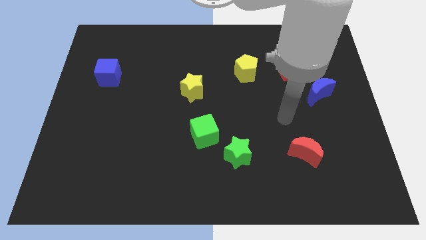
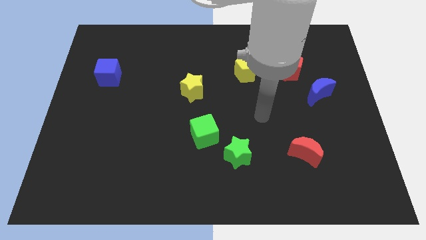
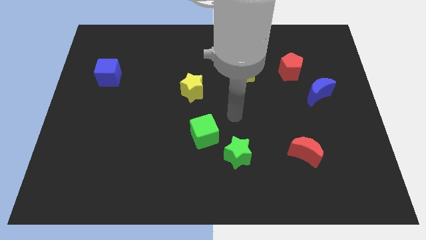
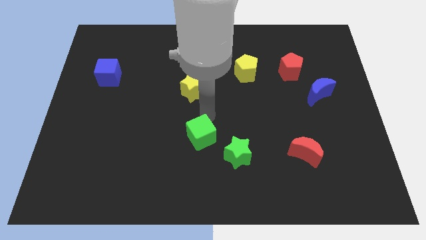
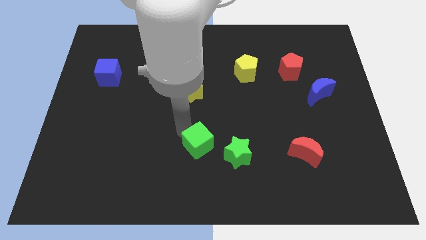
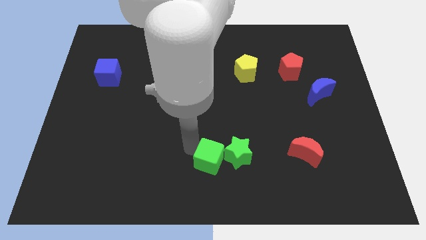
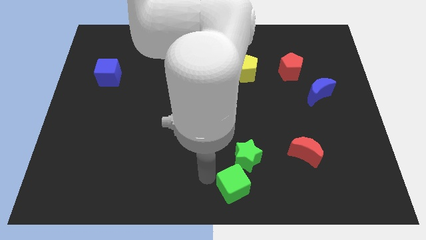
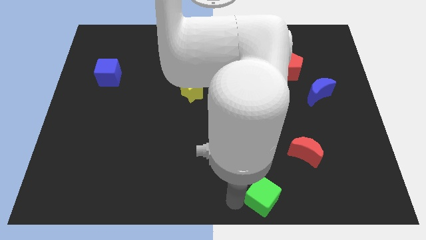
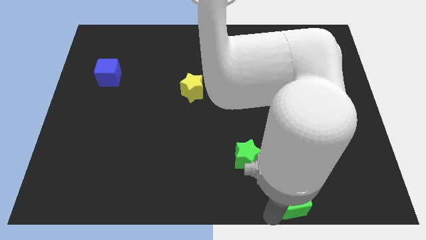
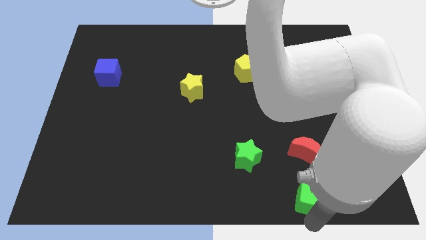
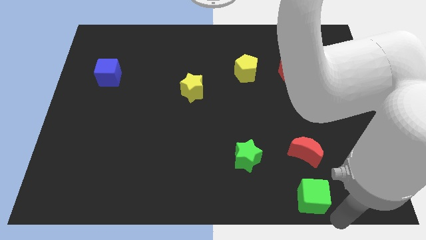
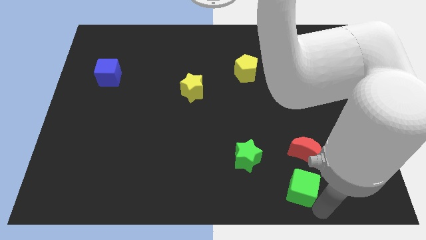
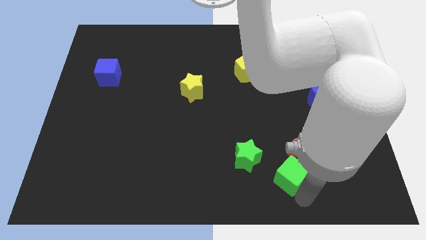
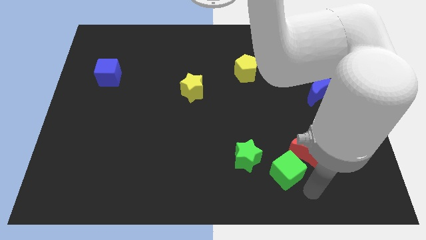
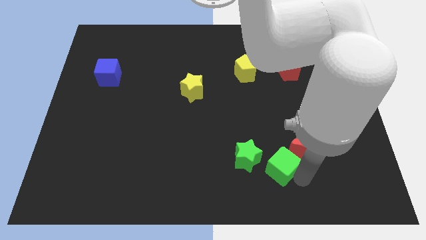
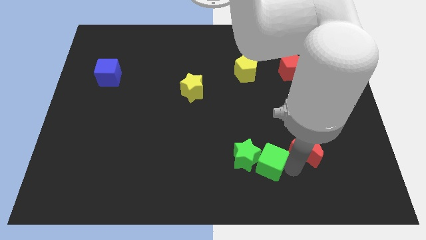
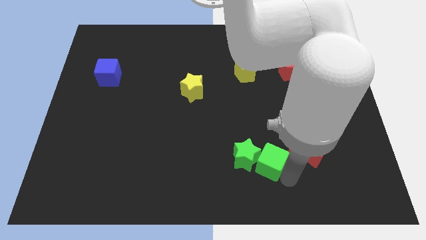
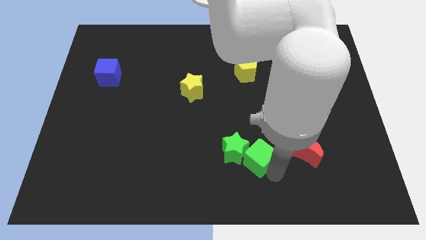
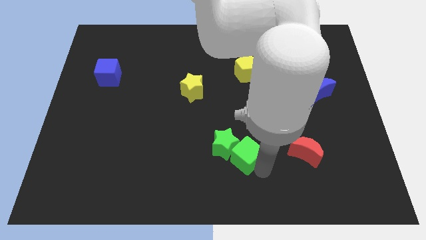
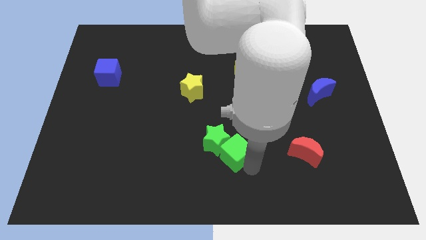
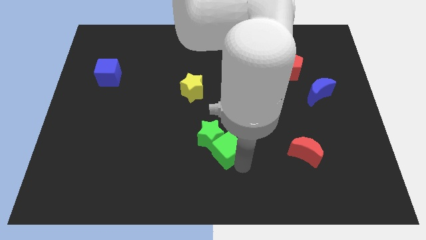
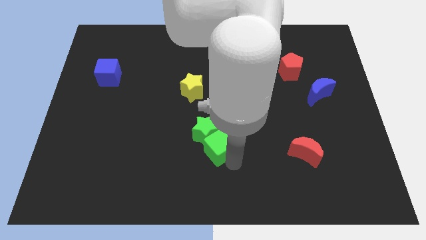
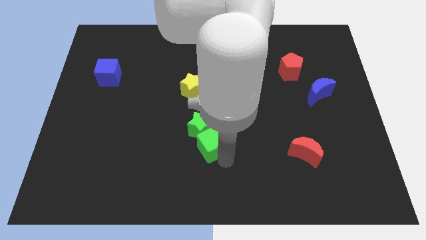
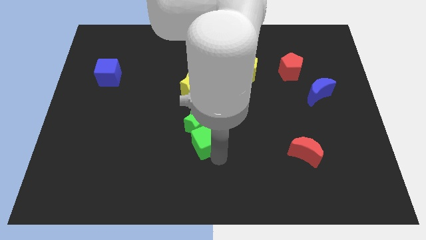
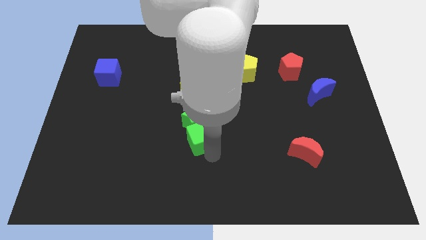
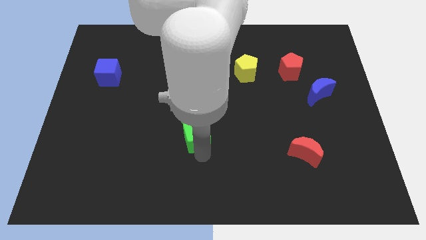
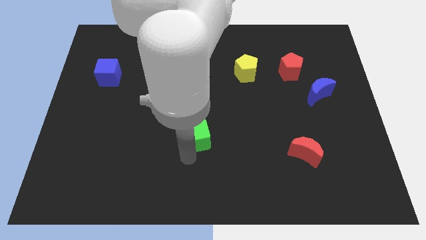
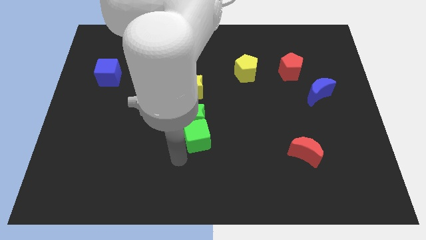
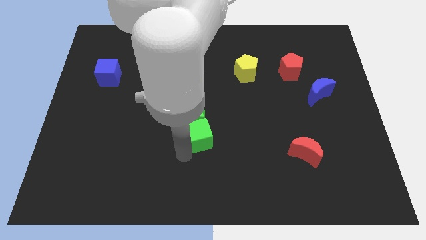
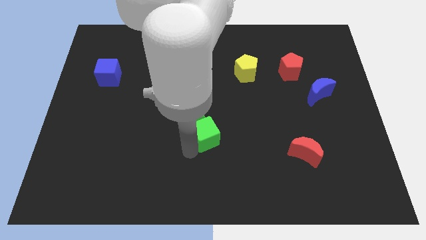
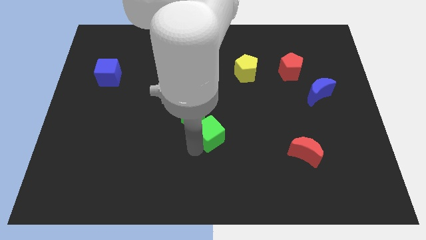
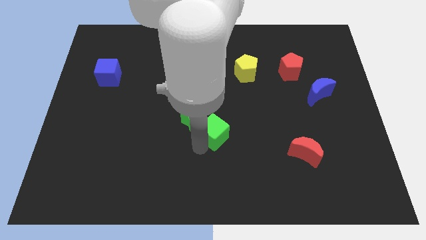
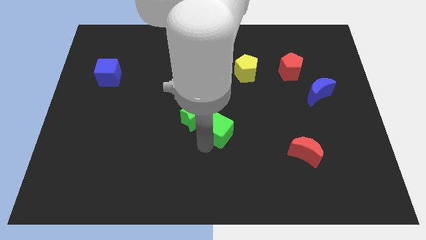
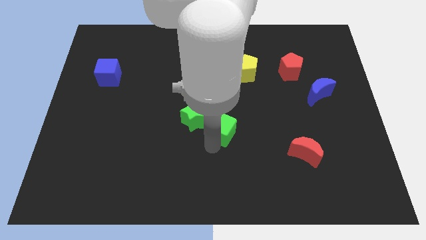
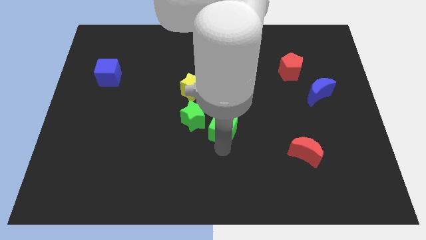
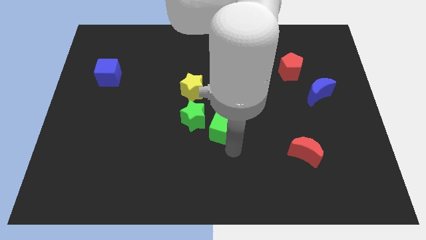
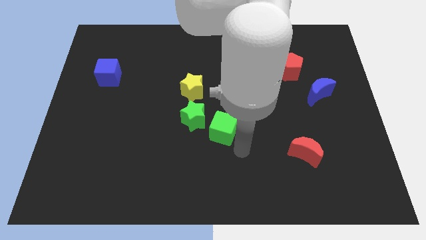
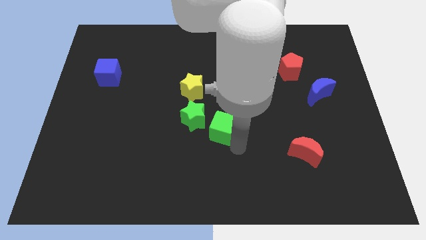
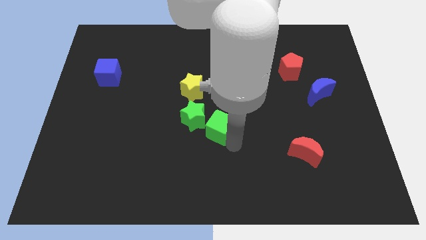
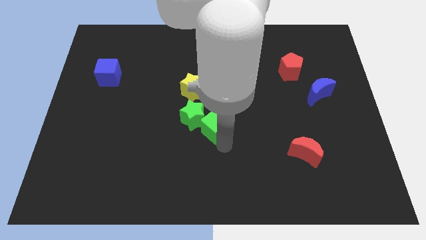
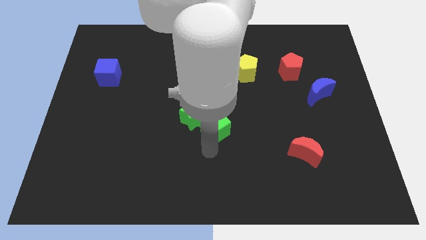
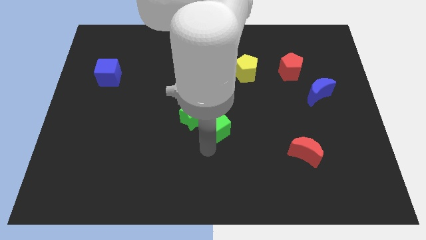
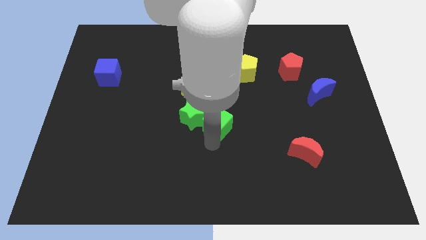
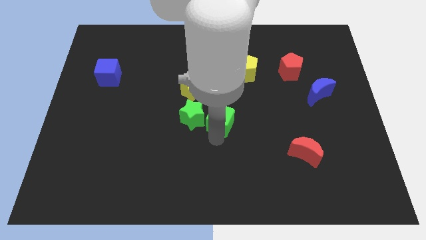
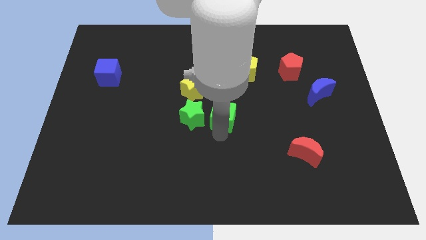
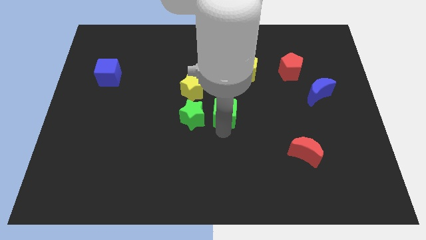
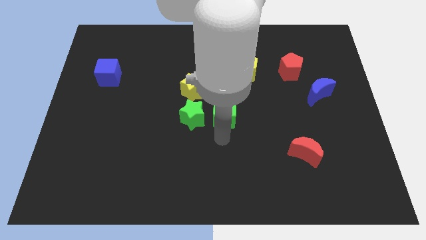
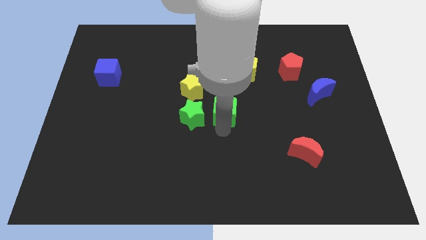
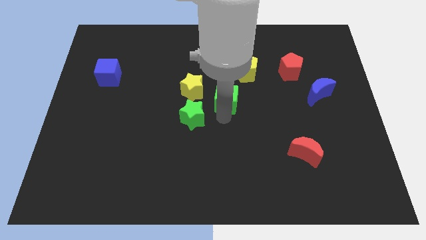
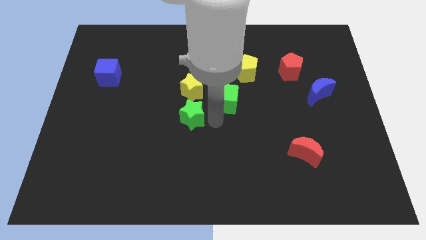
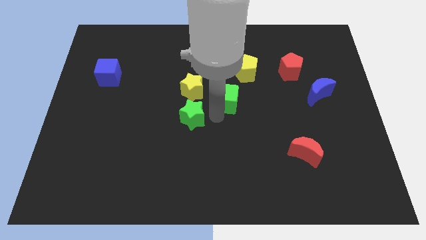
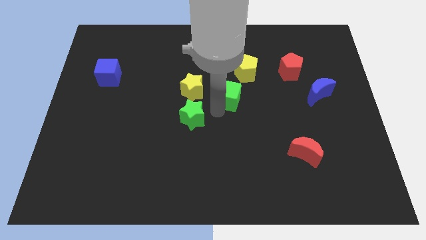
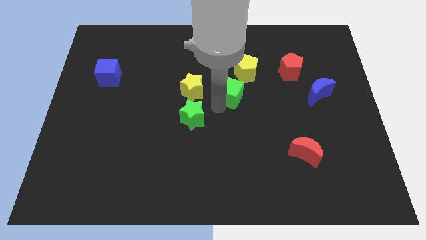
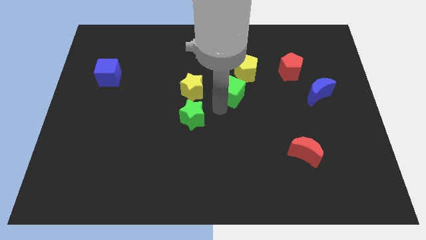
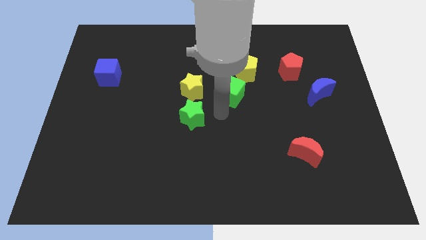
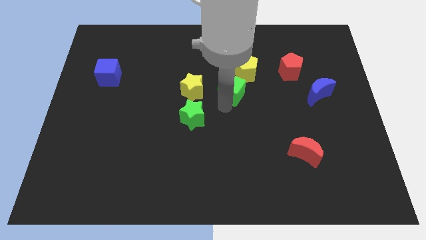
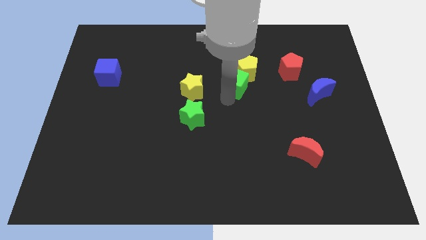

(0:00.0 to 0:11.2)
move the green cube towards the yellow pentagon

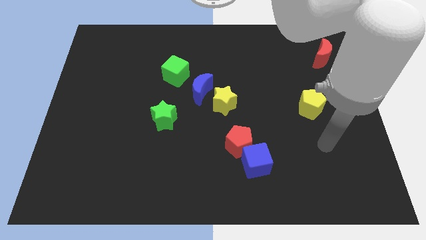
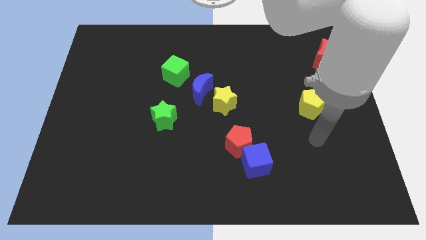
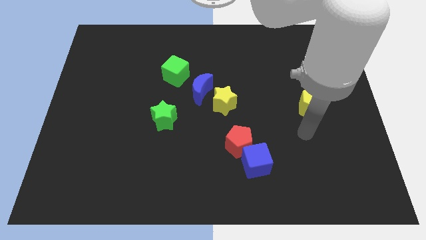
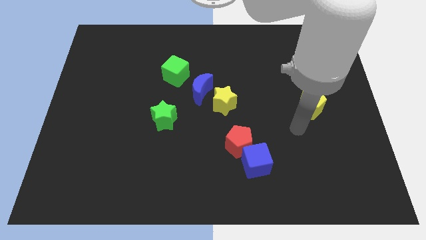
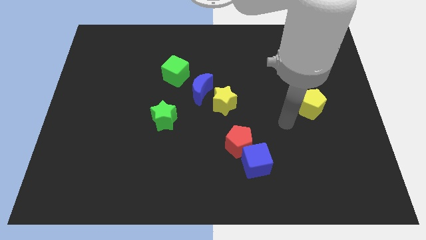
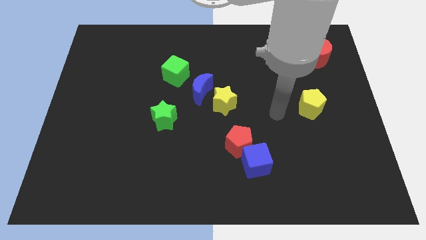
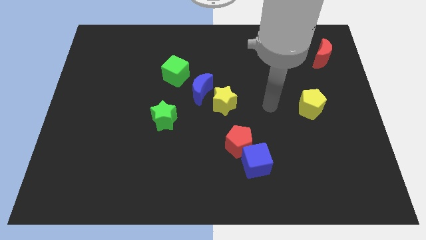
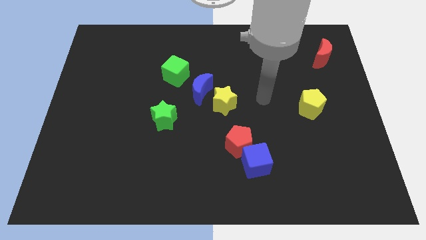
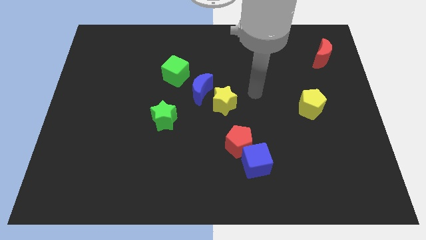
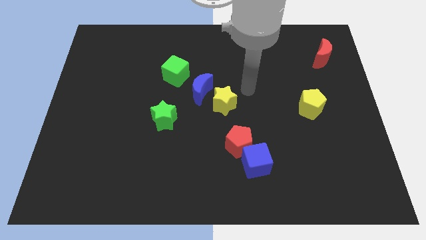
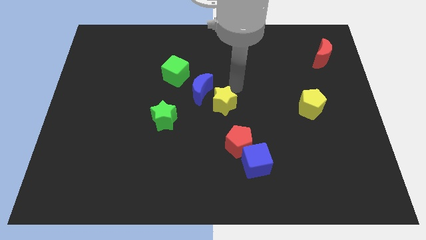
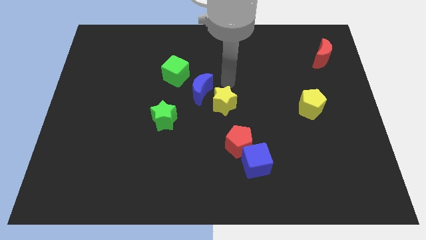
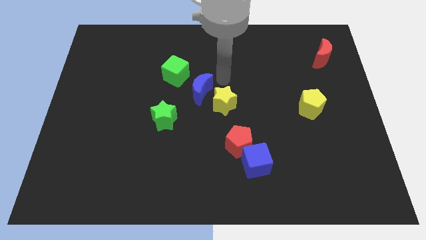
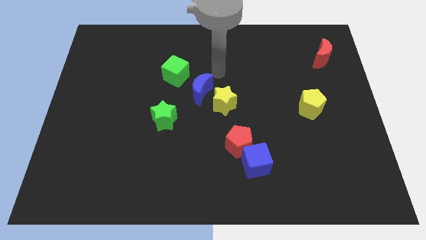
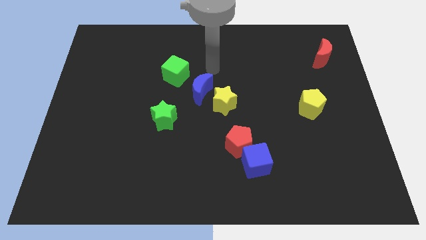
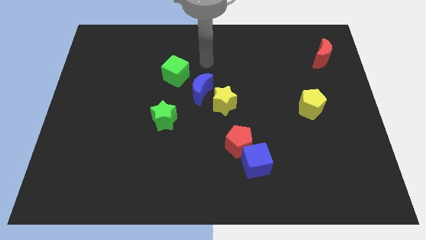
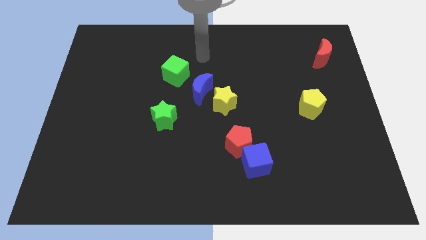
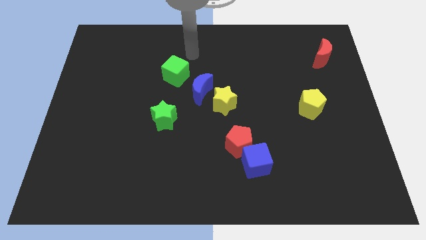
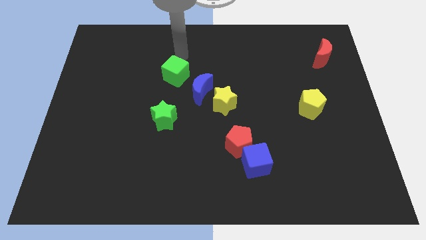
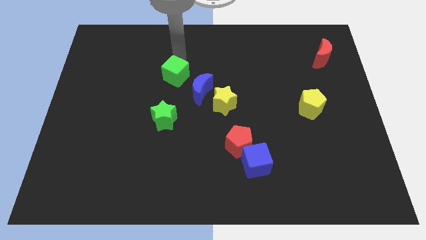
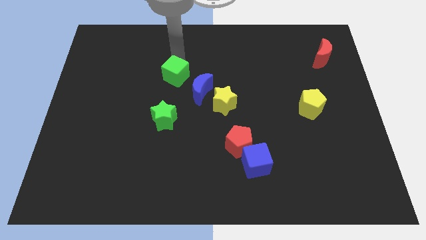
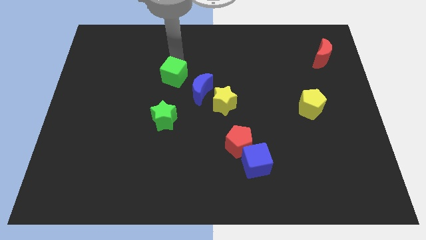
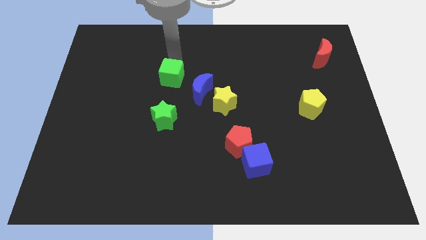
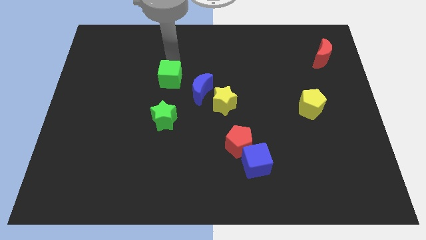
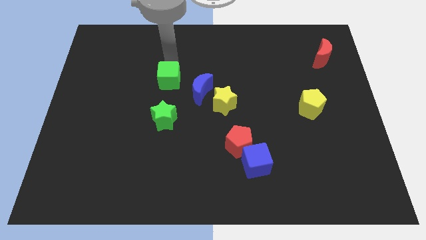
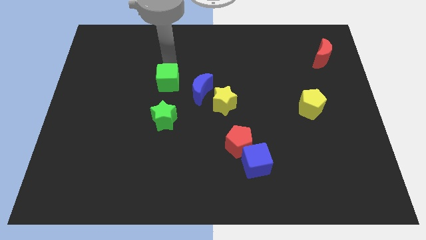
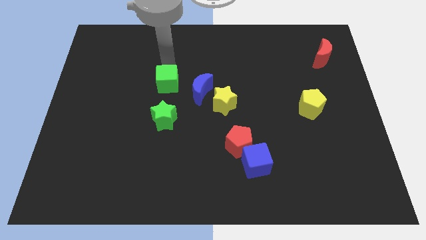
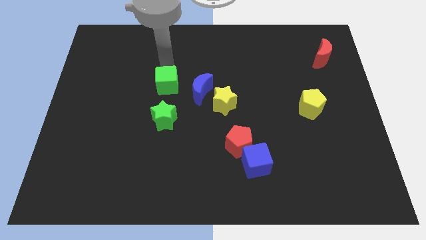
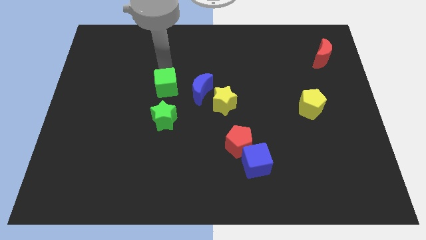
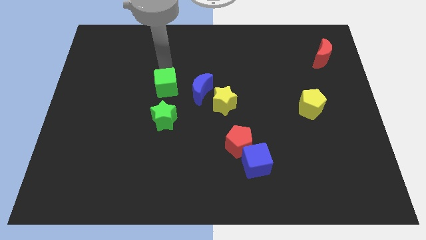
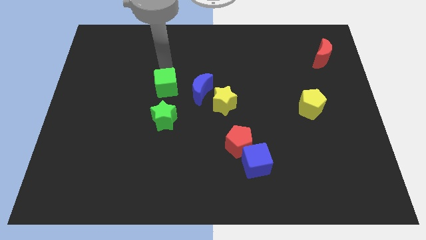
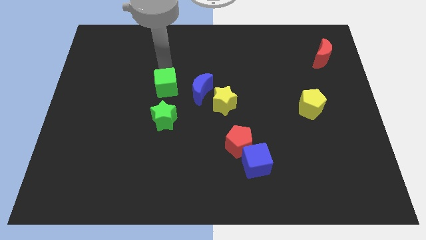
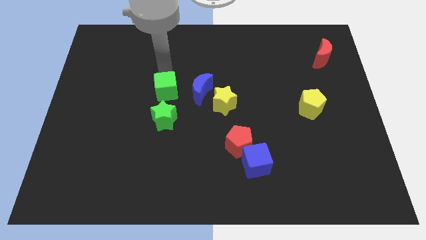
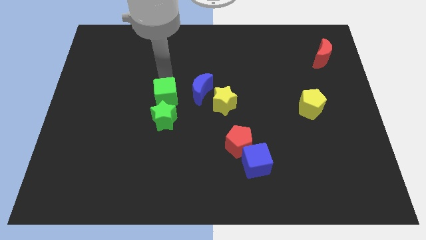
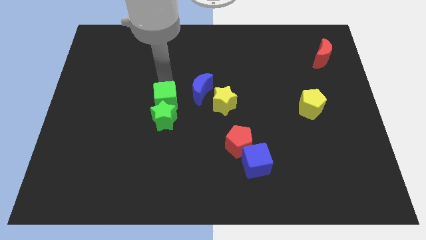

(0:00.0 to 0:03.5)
slide the green cube towards the green star
